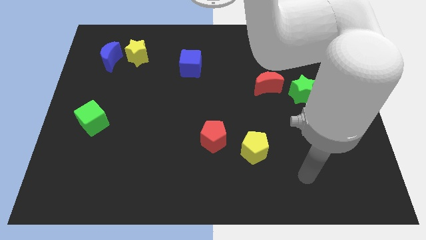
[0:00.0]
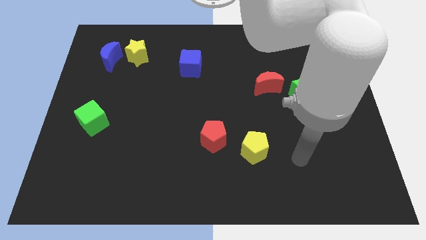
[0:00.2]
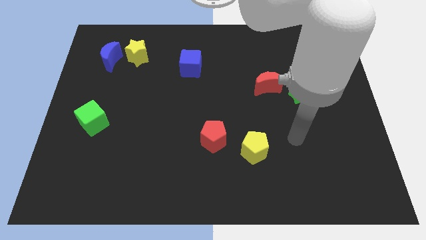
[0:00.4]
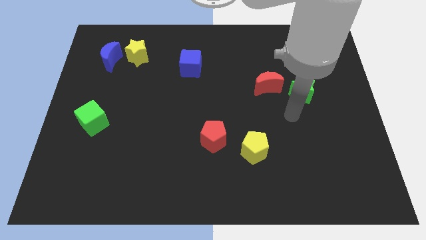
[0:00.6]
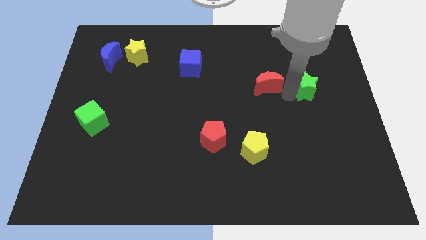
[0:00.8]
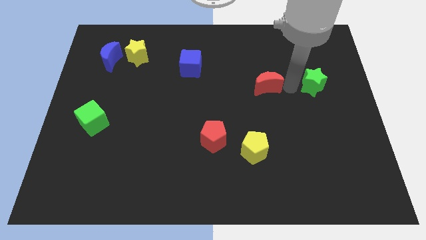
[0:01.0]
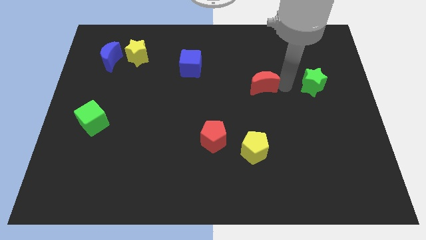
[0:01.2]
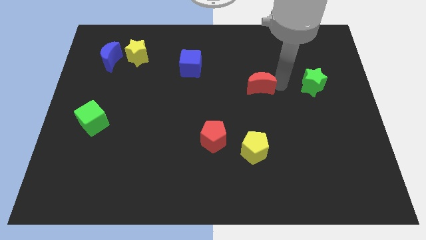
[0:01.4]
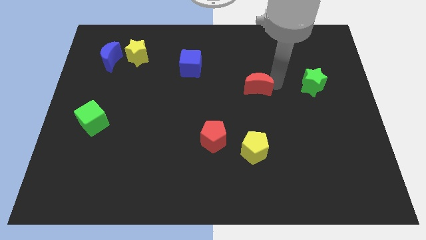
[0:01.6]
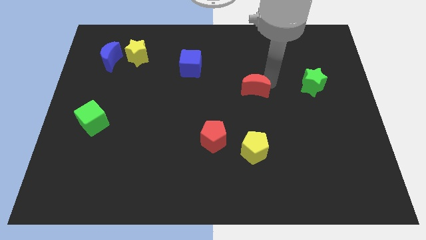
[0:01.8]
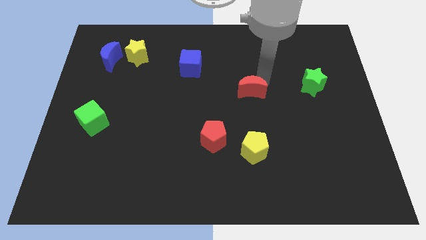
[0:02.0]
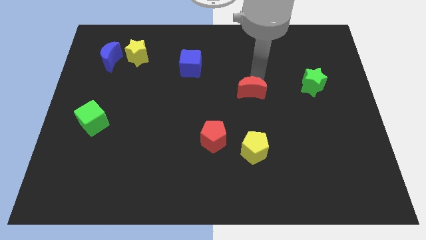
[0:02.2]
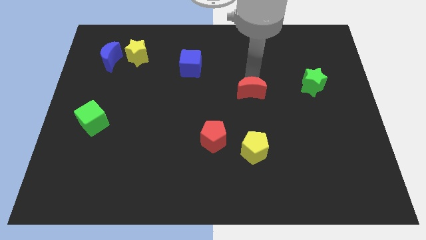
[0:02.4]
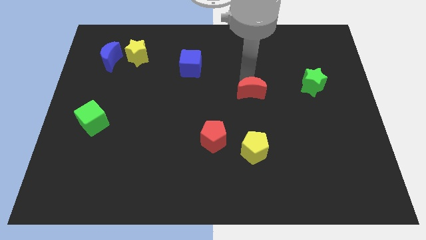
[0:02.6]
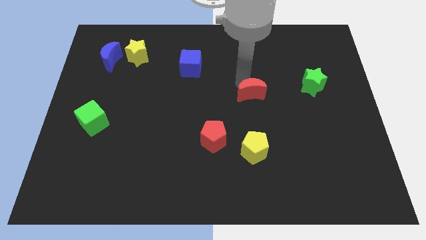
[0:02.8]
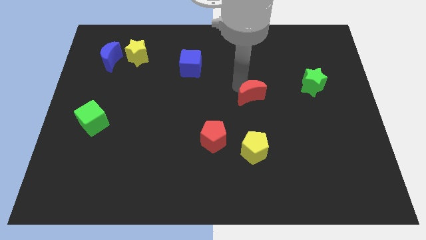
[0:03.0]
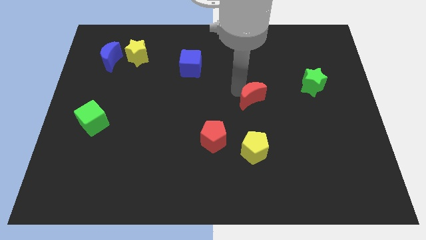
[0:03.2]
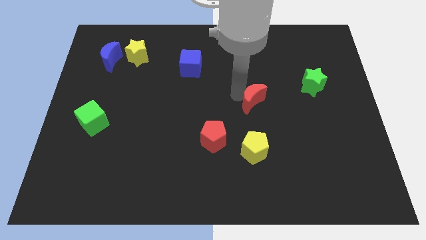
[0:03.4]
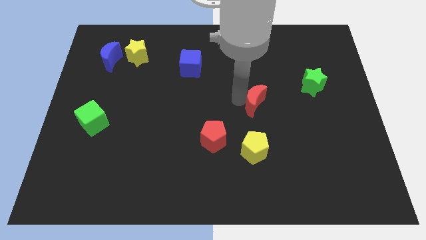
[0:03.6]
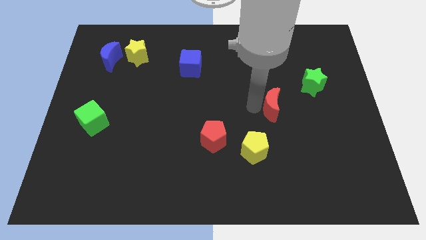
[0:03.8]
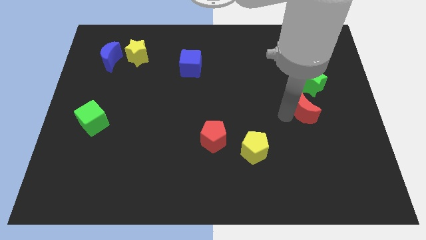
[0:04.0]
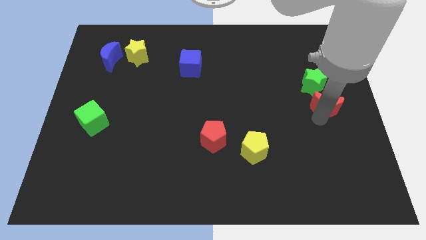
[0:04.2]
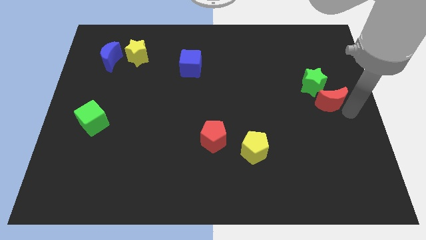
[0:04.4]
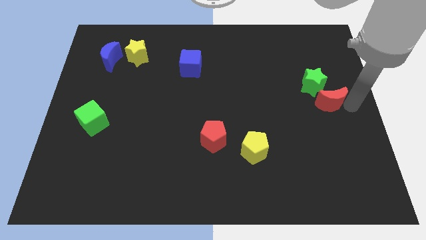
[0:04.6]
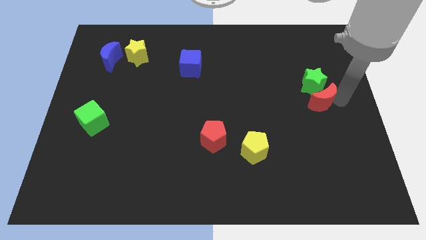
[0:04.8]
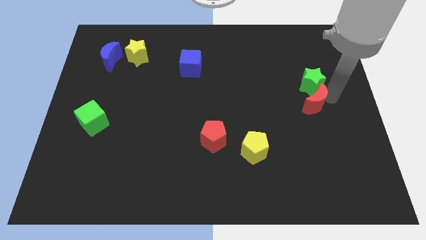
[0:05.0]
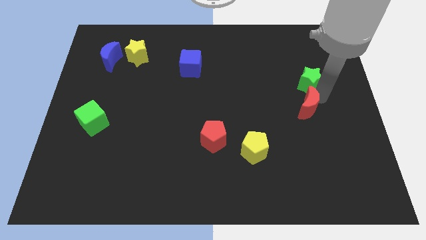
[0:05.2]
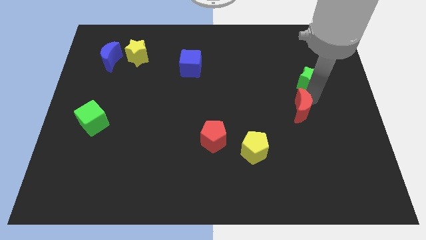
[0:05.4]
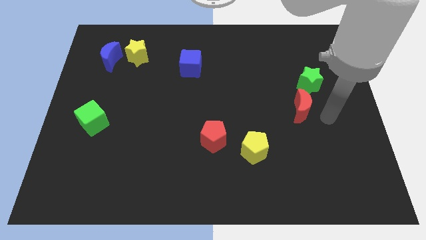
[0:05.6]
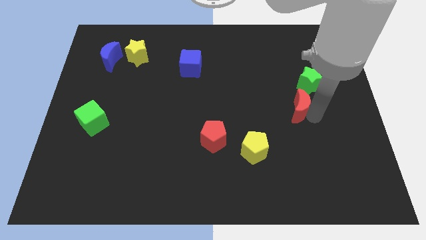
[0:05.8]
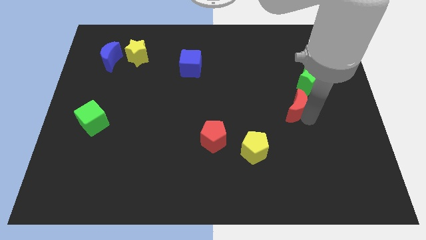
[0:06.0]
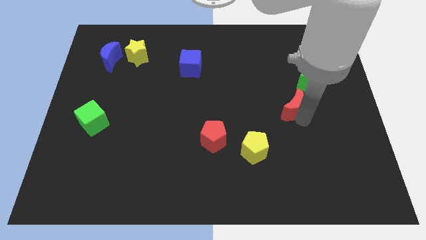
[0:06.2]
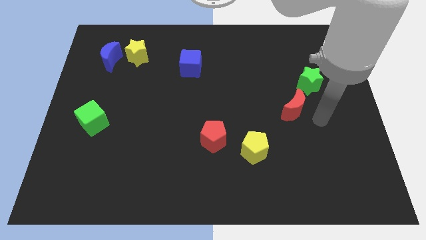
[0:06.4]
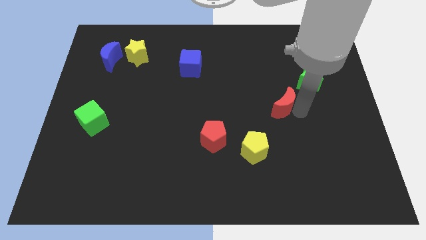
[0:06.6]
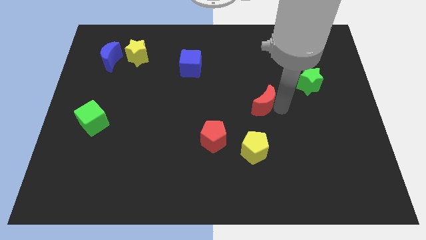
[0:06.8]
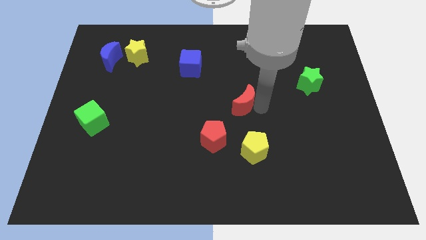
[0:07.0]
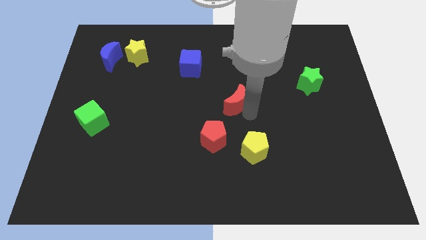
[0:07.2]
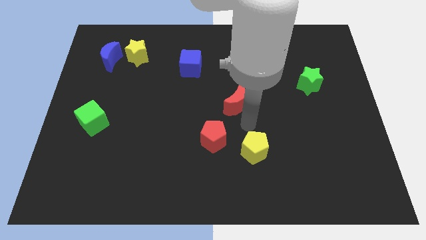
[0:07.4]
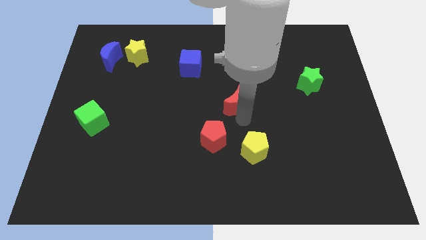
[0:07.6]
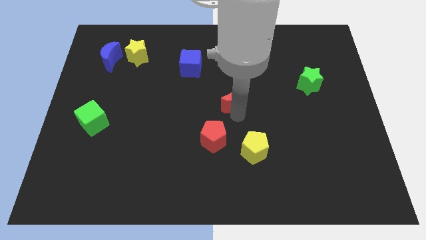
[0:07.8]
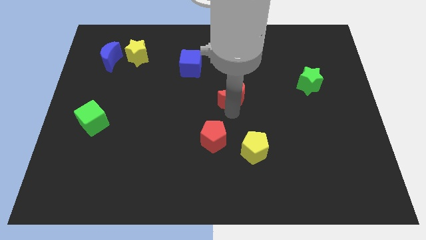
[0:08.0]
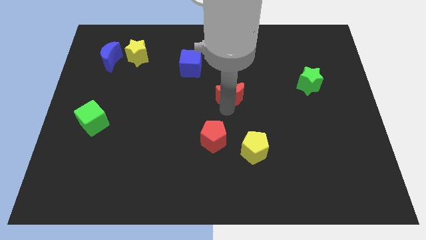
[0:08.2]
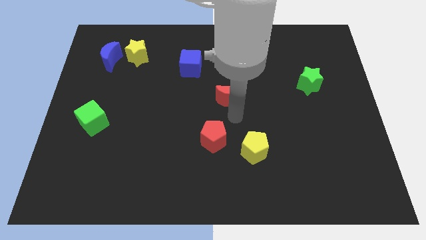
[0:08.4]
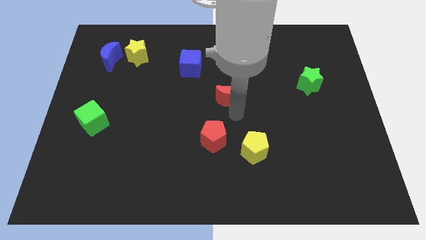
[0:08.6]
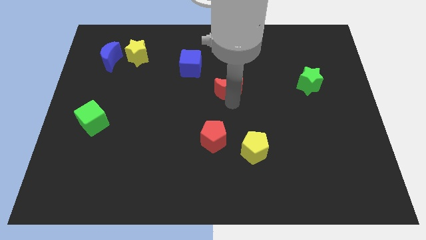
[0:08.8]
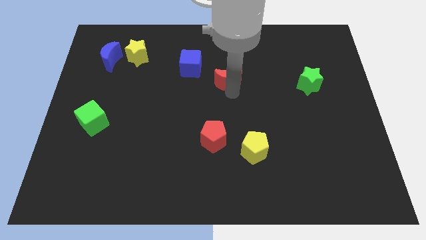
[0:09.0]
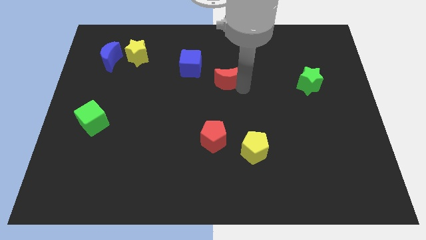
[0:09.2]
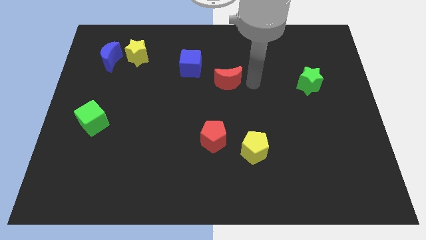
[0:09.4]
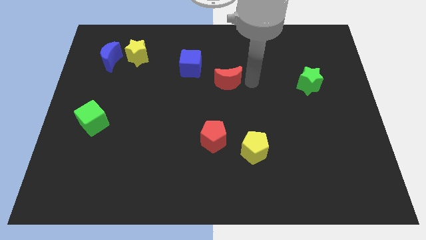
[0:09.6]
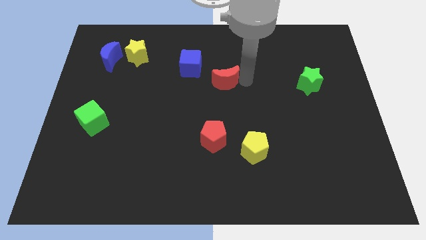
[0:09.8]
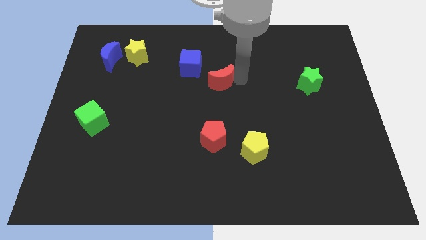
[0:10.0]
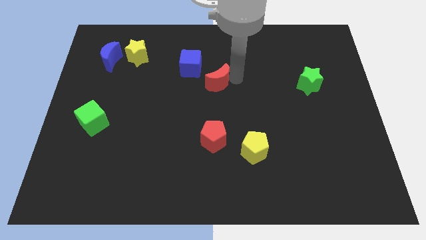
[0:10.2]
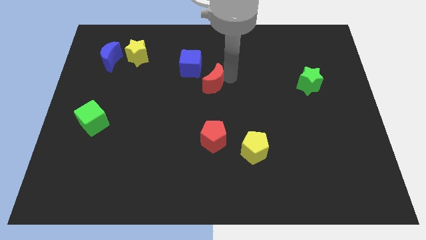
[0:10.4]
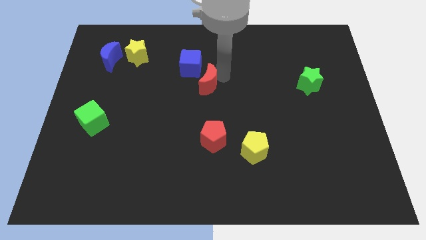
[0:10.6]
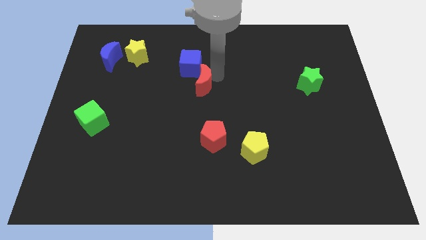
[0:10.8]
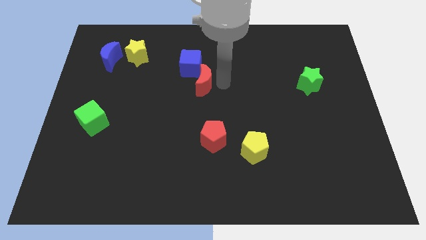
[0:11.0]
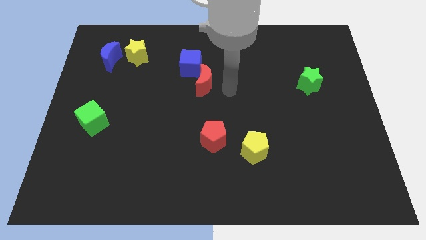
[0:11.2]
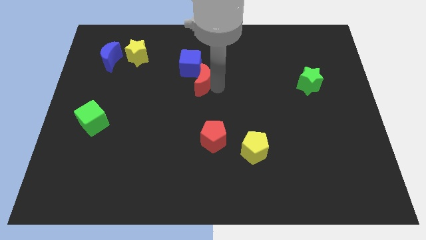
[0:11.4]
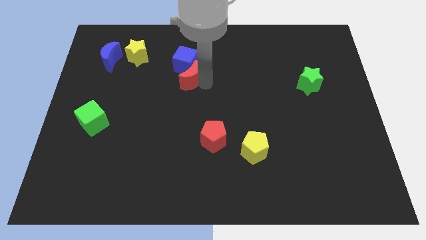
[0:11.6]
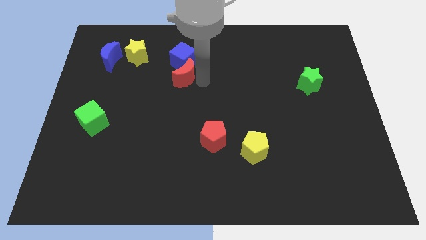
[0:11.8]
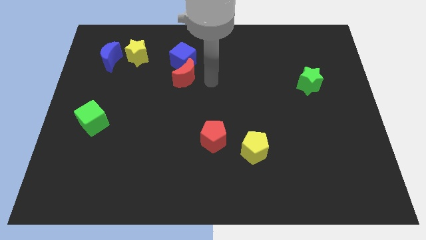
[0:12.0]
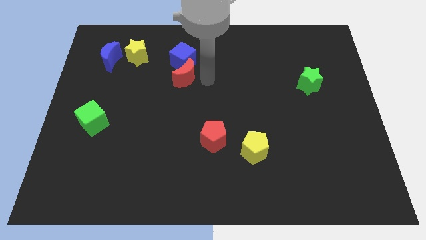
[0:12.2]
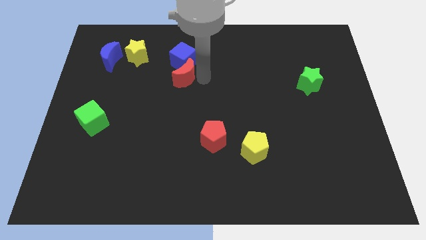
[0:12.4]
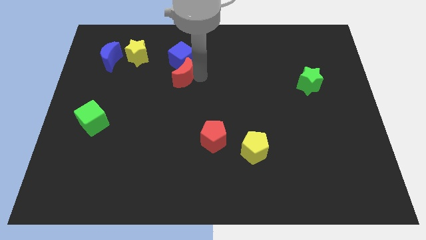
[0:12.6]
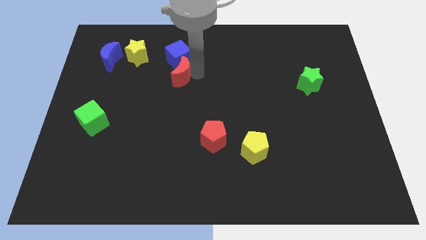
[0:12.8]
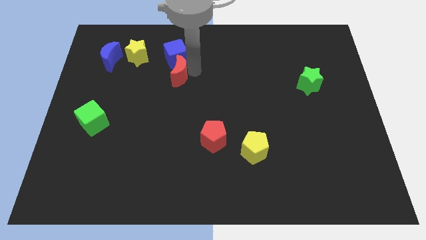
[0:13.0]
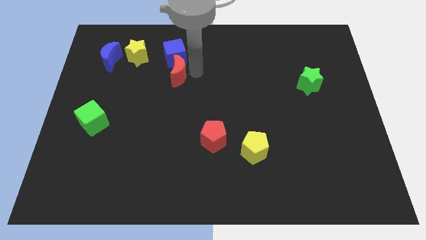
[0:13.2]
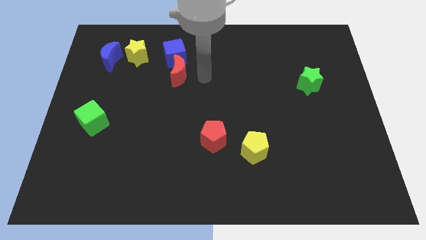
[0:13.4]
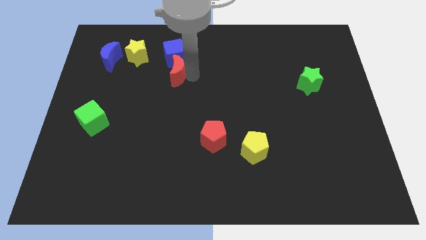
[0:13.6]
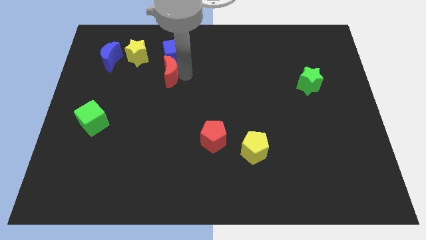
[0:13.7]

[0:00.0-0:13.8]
slide the red moon to the bottom right side of the yellow star

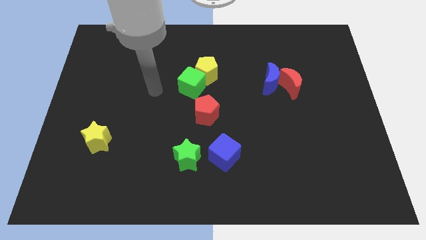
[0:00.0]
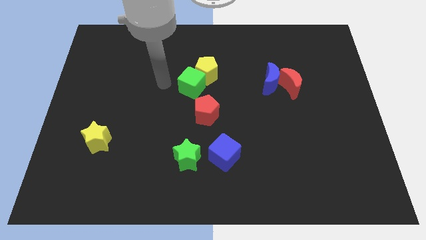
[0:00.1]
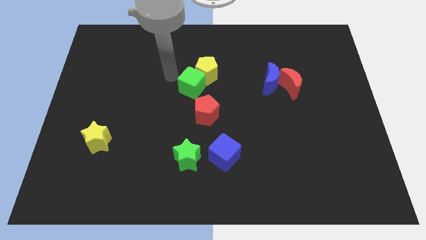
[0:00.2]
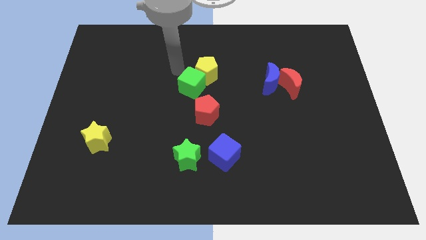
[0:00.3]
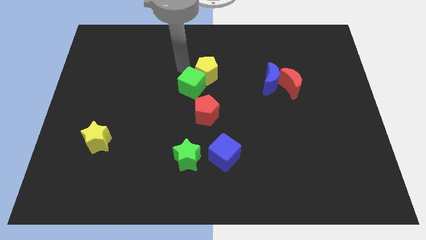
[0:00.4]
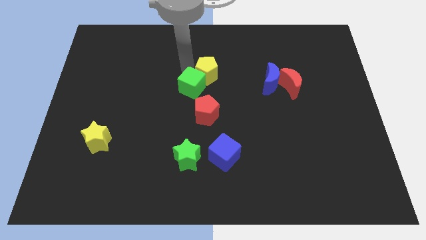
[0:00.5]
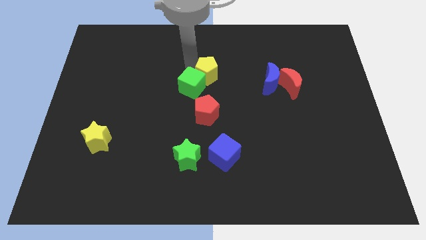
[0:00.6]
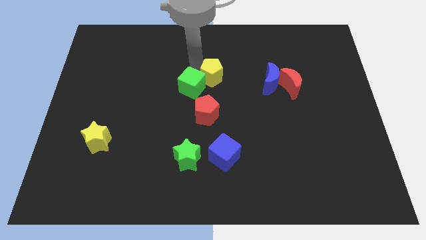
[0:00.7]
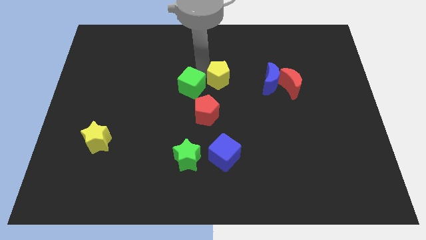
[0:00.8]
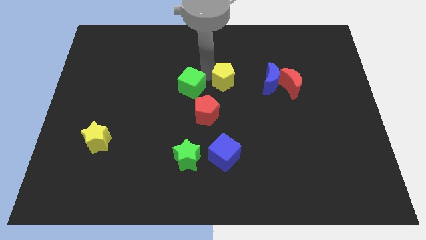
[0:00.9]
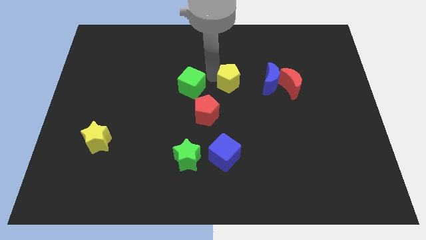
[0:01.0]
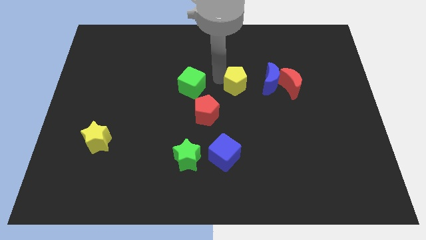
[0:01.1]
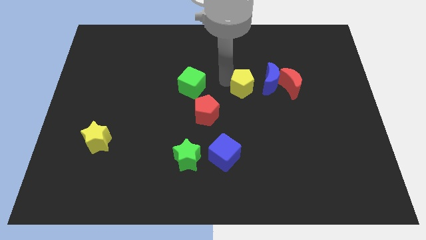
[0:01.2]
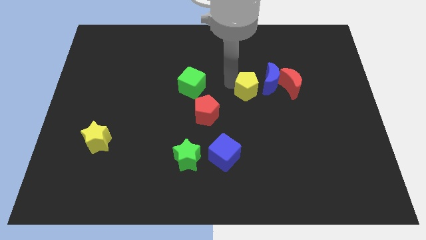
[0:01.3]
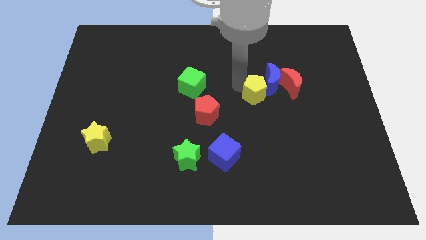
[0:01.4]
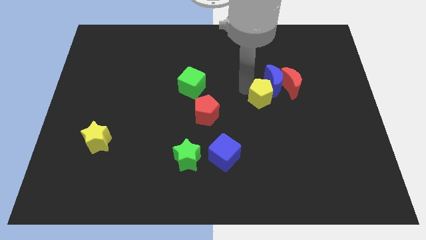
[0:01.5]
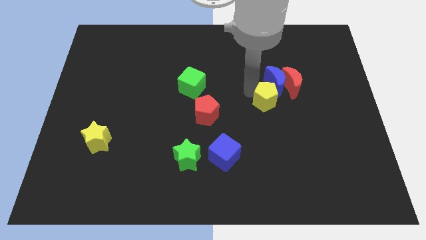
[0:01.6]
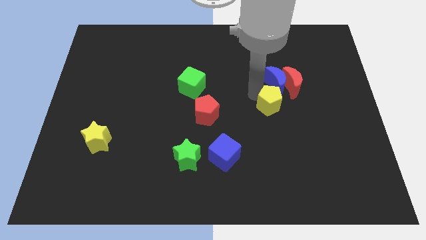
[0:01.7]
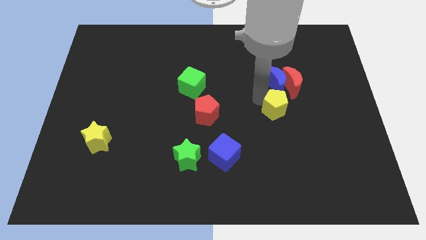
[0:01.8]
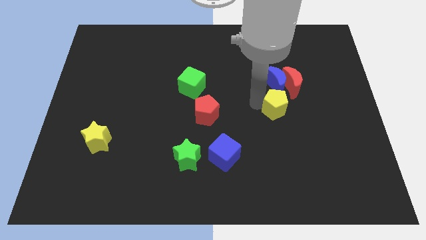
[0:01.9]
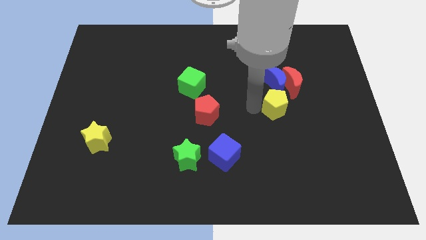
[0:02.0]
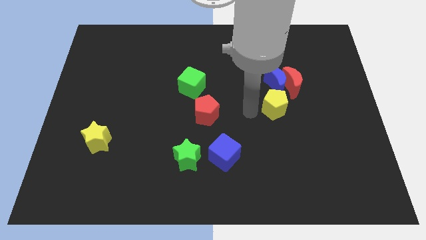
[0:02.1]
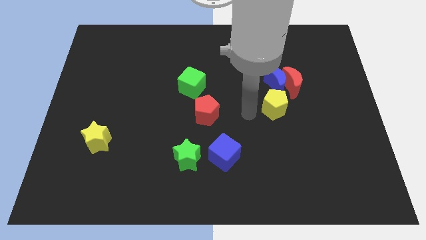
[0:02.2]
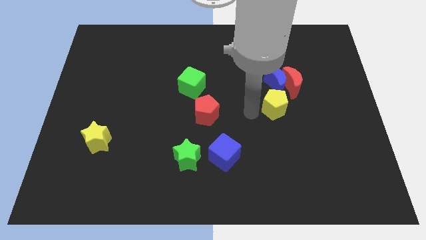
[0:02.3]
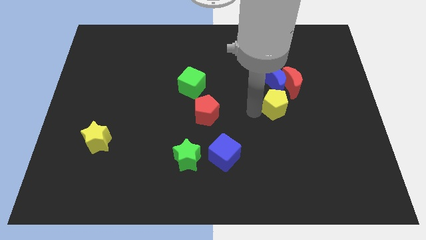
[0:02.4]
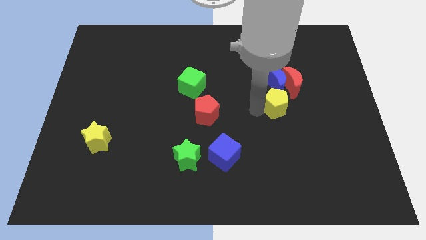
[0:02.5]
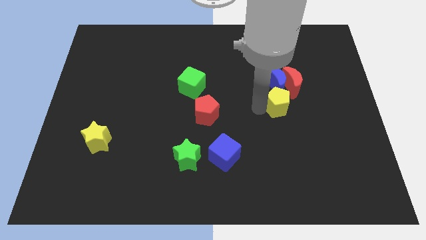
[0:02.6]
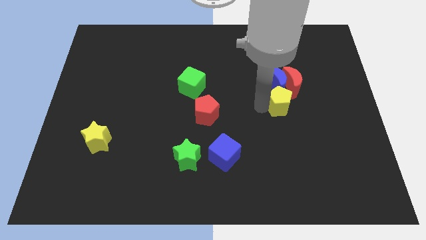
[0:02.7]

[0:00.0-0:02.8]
slide the yellow pentagon diagonally down and to the right of the blue moon
